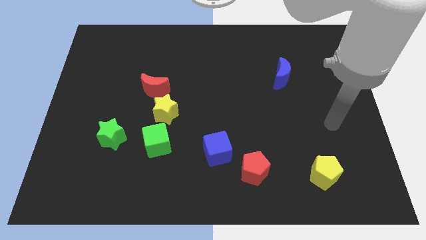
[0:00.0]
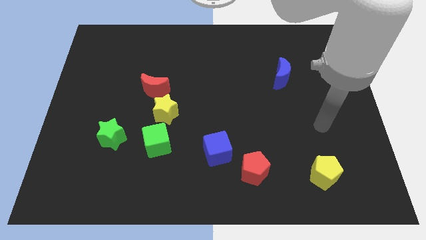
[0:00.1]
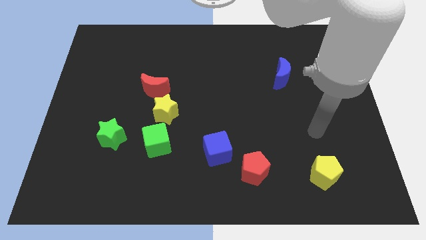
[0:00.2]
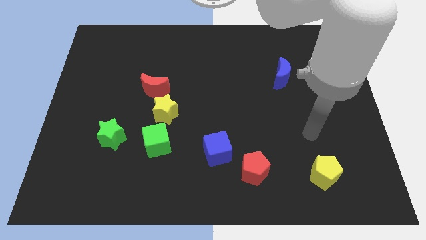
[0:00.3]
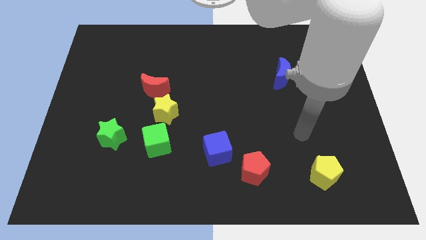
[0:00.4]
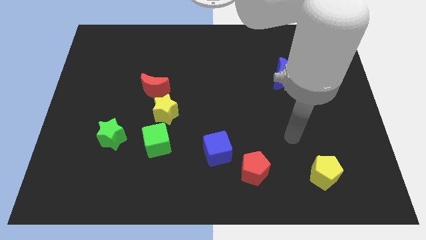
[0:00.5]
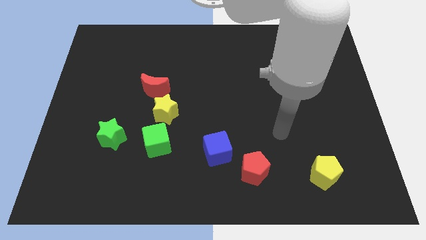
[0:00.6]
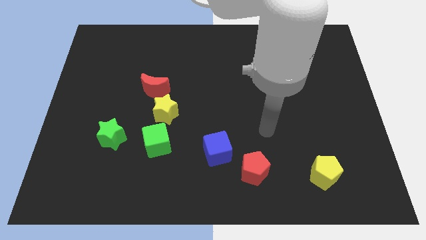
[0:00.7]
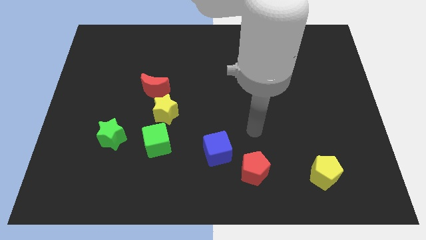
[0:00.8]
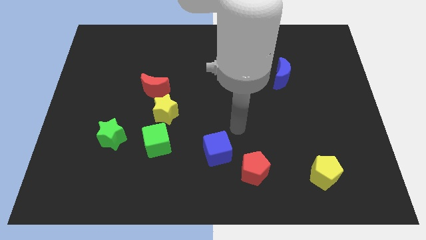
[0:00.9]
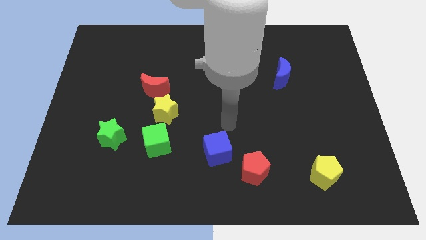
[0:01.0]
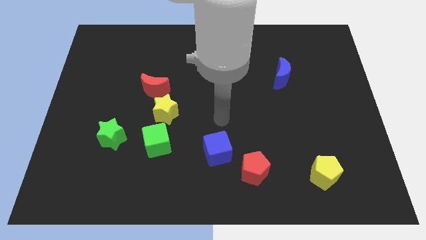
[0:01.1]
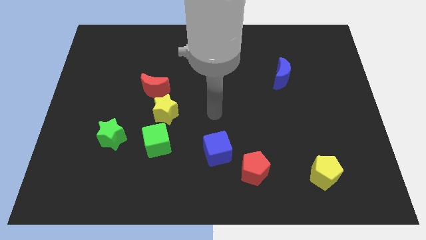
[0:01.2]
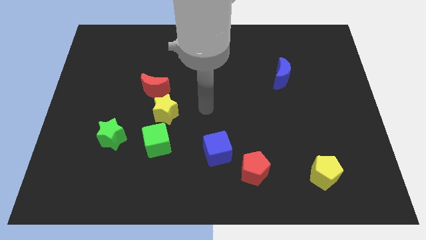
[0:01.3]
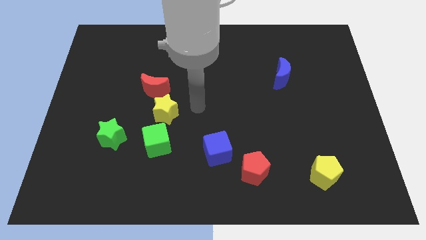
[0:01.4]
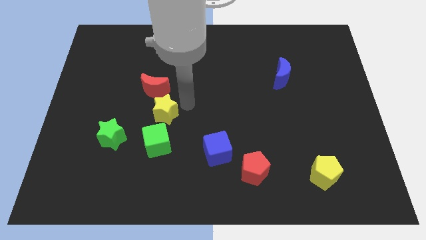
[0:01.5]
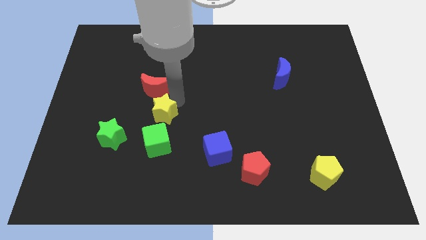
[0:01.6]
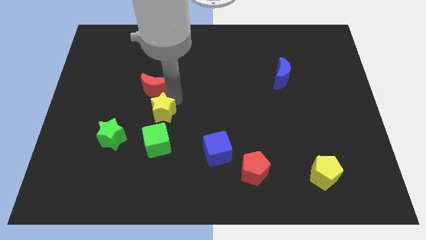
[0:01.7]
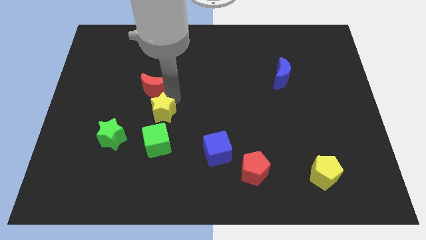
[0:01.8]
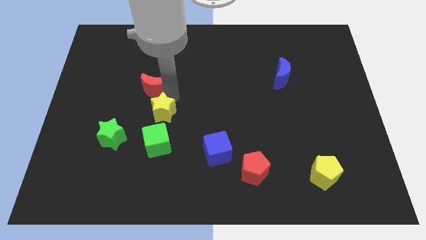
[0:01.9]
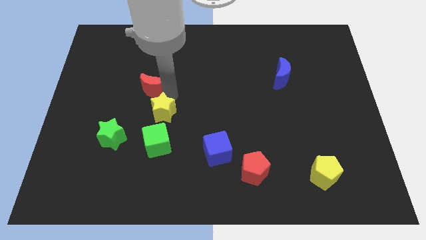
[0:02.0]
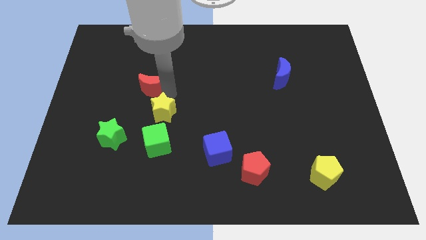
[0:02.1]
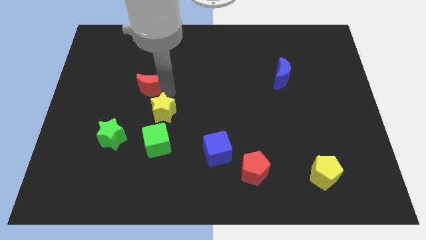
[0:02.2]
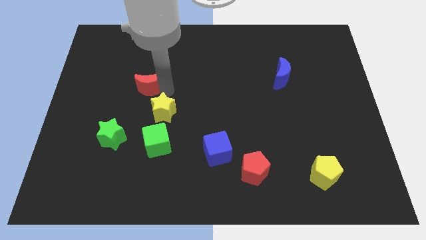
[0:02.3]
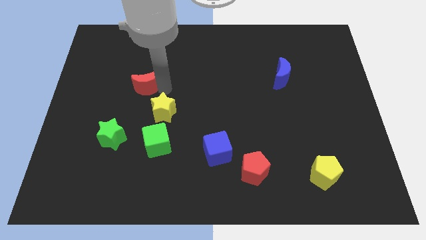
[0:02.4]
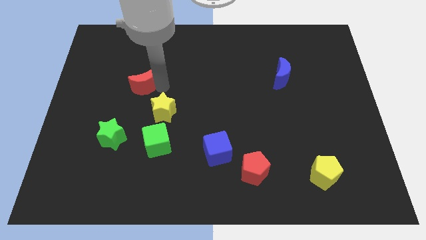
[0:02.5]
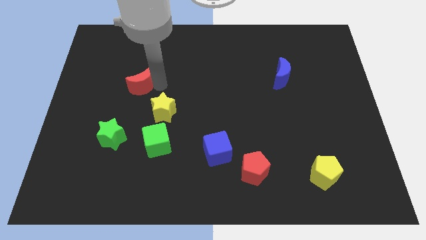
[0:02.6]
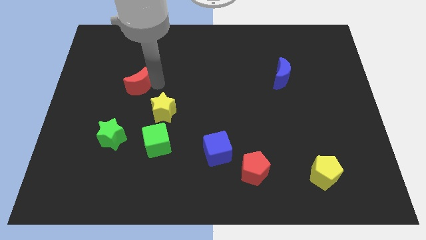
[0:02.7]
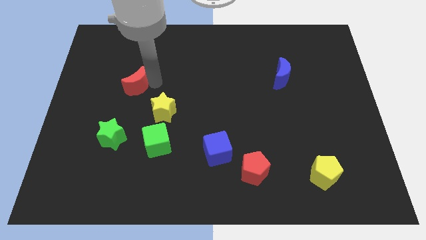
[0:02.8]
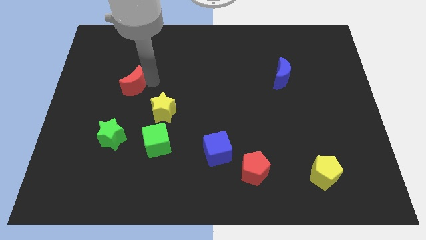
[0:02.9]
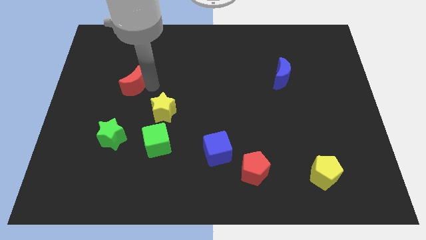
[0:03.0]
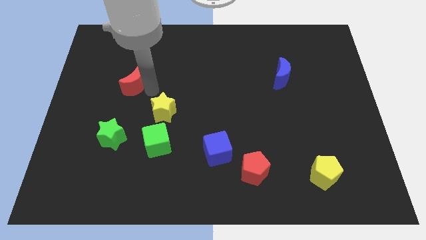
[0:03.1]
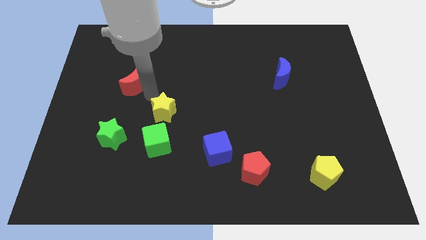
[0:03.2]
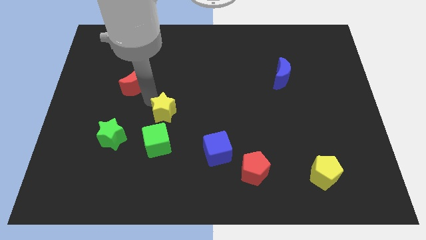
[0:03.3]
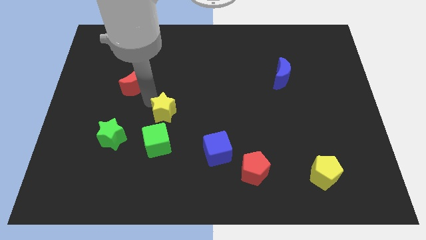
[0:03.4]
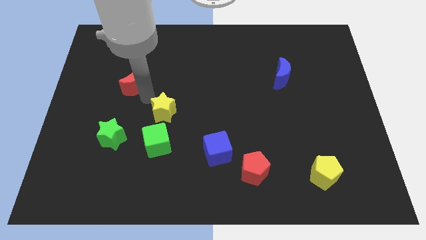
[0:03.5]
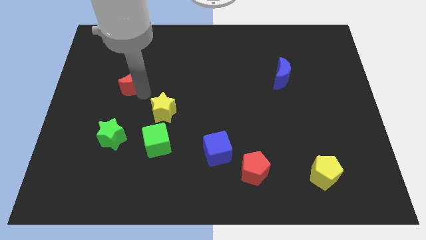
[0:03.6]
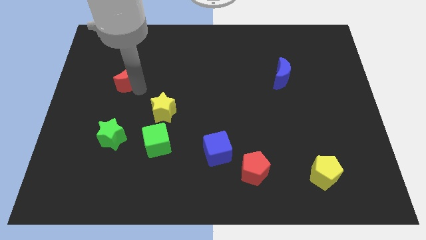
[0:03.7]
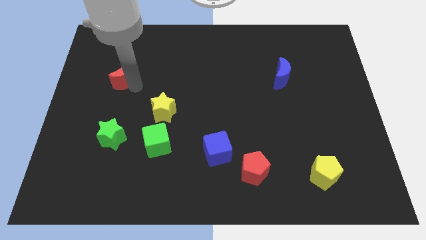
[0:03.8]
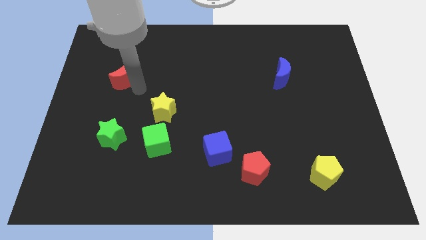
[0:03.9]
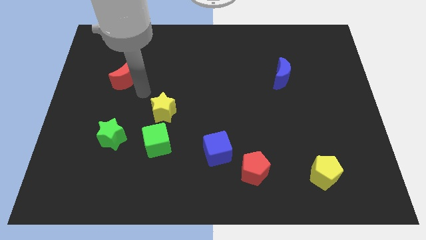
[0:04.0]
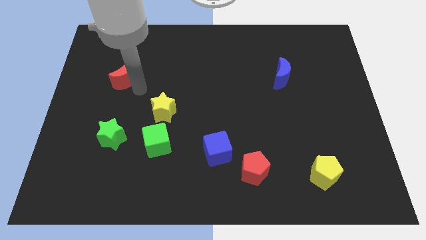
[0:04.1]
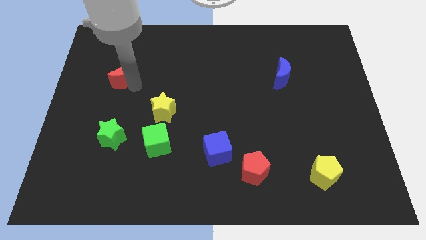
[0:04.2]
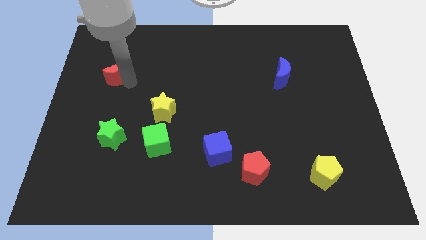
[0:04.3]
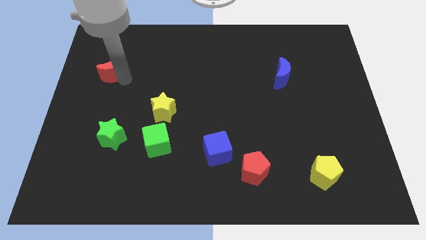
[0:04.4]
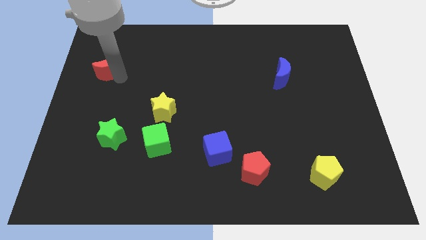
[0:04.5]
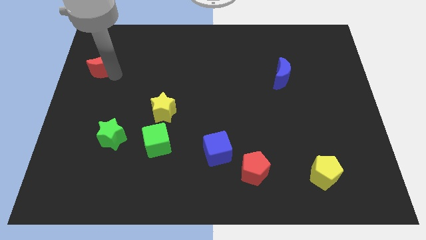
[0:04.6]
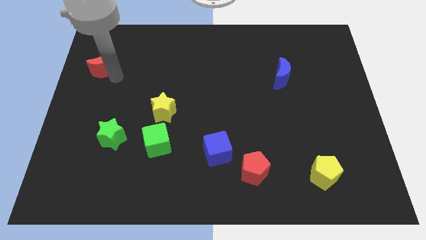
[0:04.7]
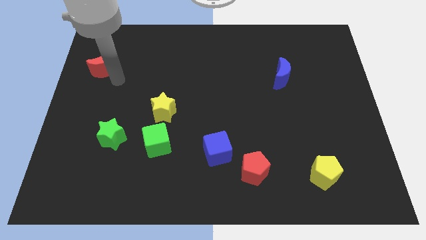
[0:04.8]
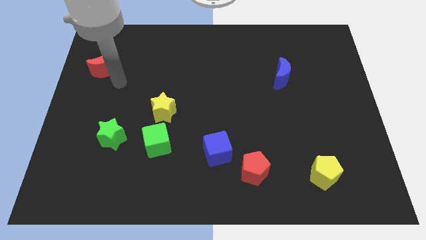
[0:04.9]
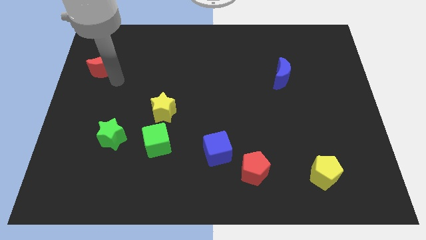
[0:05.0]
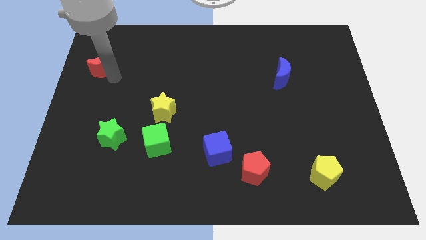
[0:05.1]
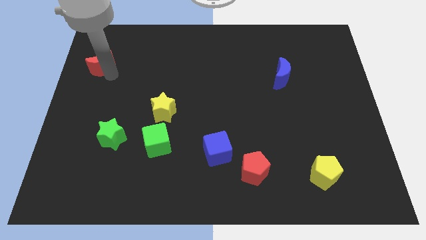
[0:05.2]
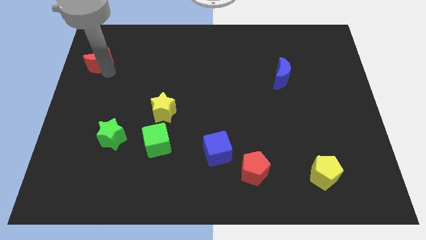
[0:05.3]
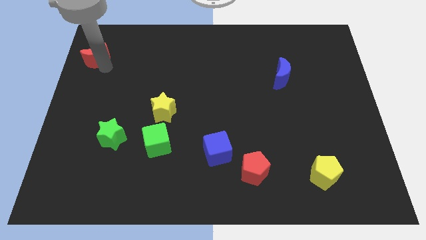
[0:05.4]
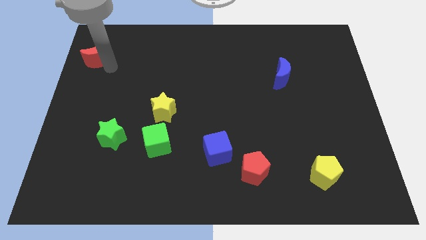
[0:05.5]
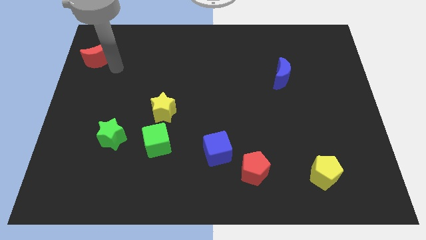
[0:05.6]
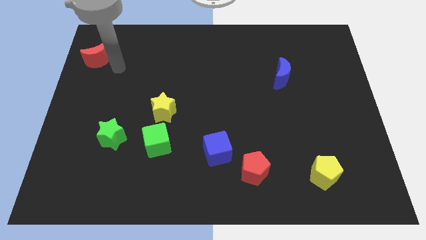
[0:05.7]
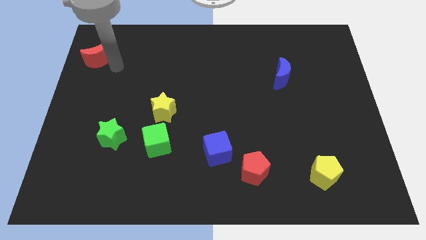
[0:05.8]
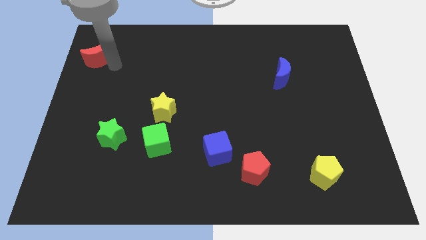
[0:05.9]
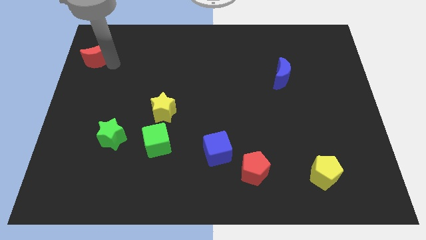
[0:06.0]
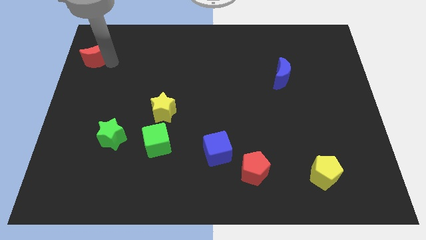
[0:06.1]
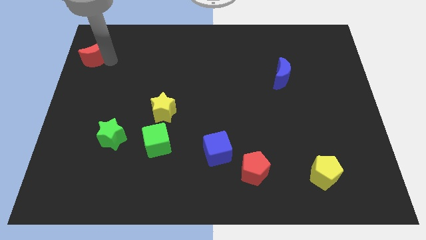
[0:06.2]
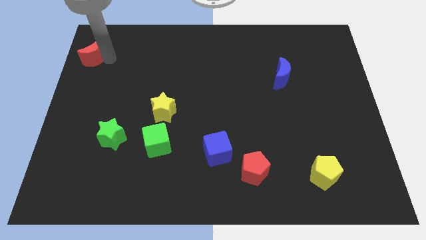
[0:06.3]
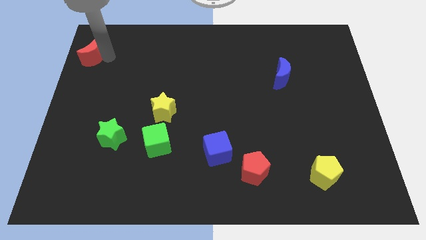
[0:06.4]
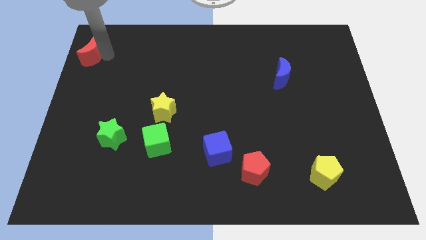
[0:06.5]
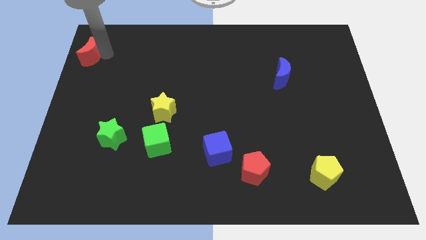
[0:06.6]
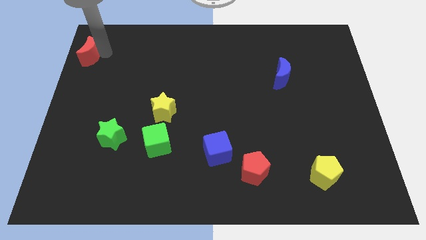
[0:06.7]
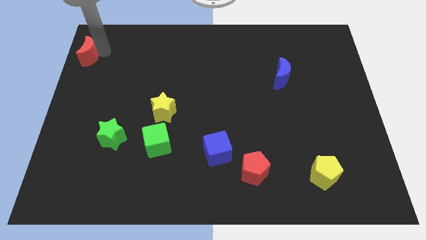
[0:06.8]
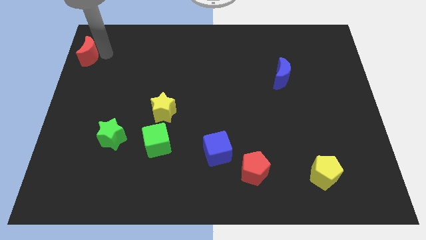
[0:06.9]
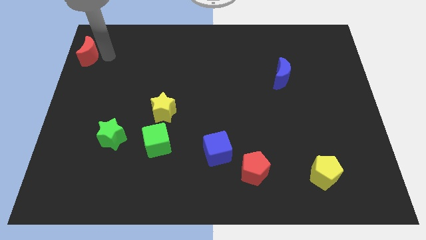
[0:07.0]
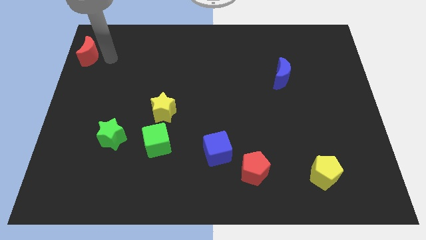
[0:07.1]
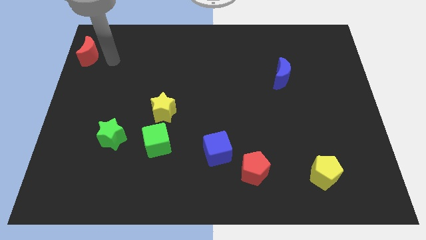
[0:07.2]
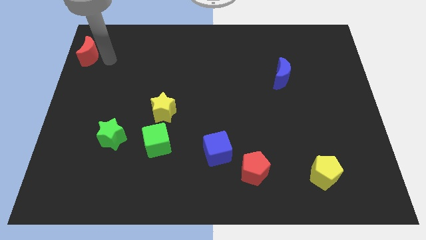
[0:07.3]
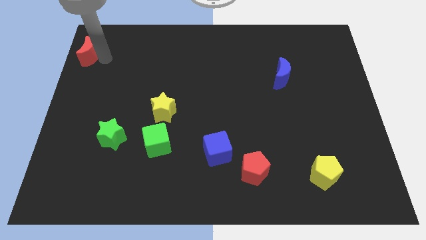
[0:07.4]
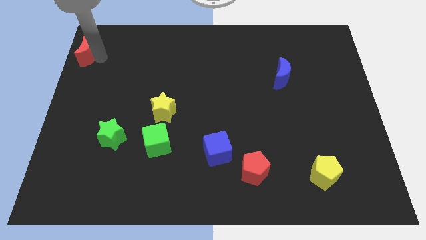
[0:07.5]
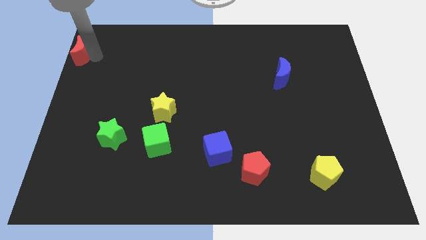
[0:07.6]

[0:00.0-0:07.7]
move the red moon to the top left corner
